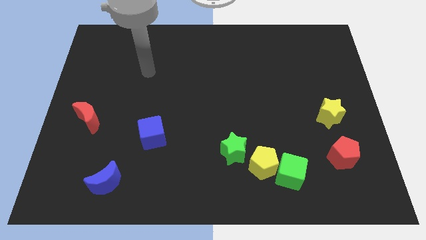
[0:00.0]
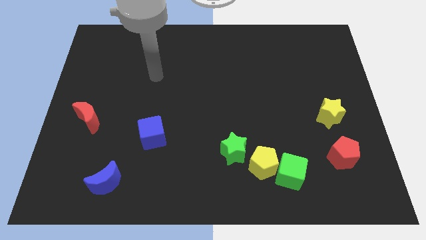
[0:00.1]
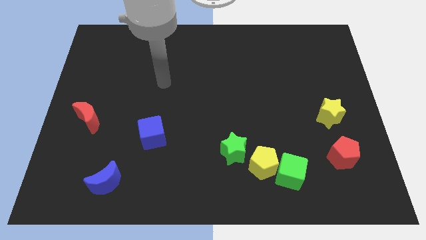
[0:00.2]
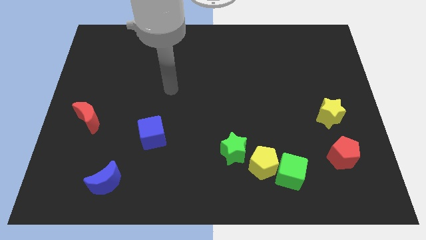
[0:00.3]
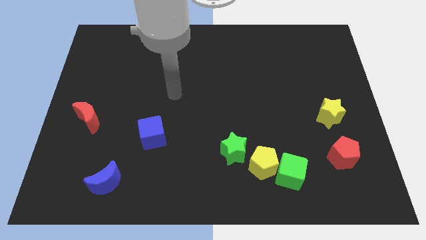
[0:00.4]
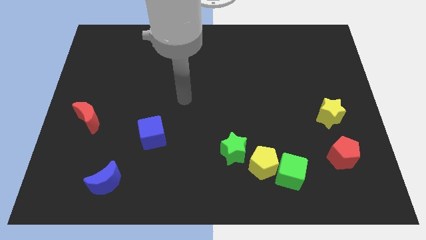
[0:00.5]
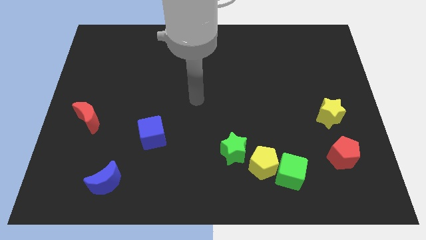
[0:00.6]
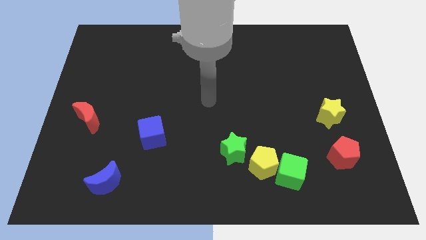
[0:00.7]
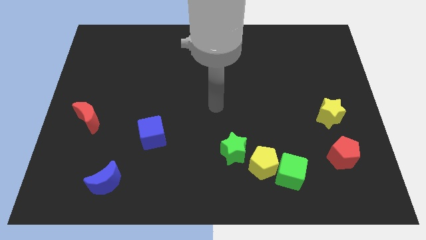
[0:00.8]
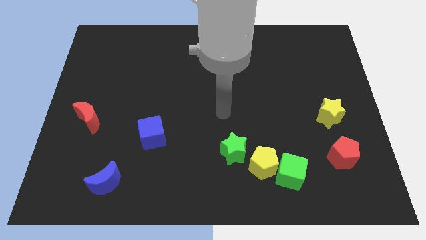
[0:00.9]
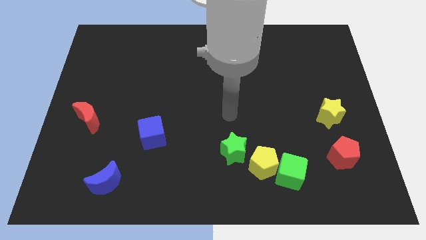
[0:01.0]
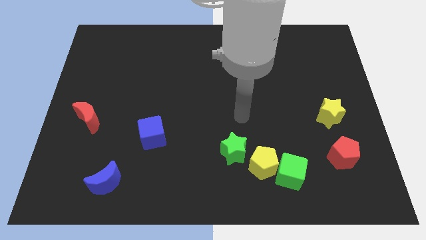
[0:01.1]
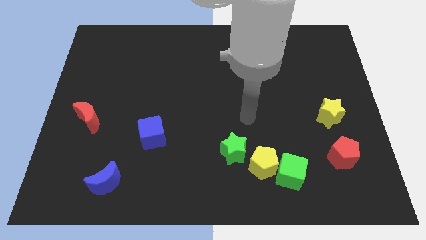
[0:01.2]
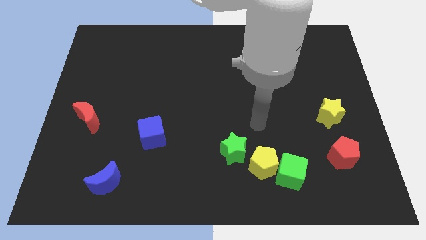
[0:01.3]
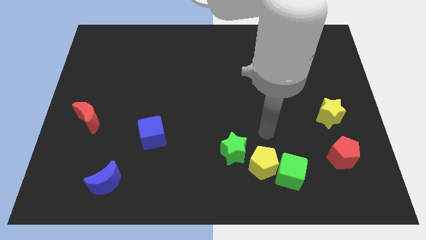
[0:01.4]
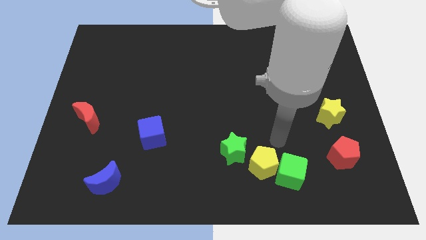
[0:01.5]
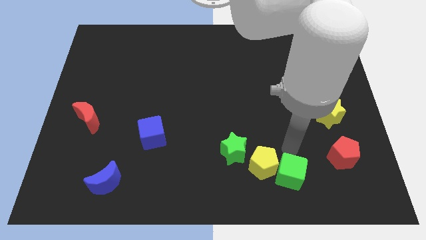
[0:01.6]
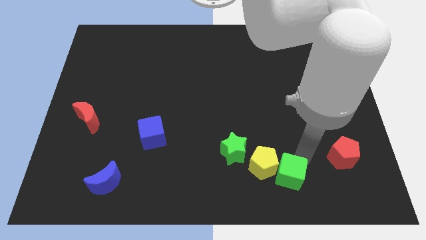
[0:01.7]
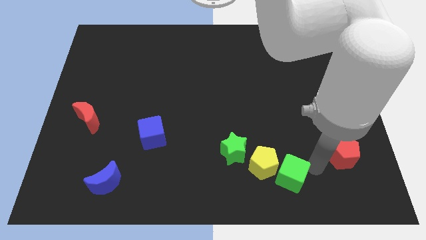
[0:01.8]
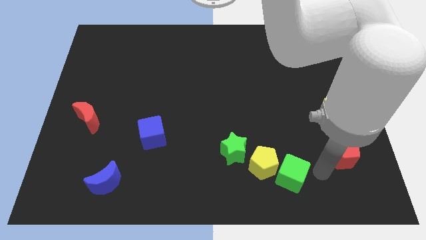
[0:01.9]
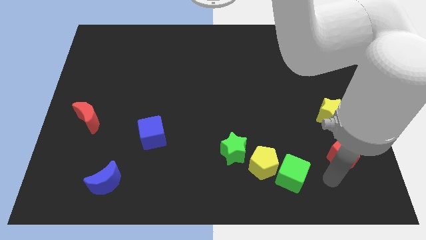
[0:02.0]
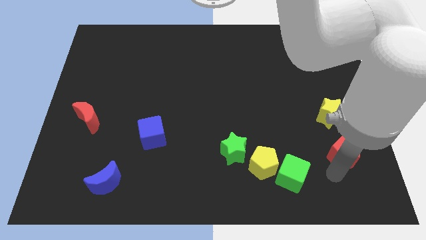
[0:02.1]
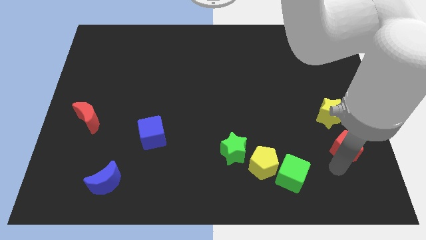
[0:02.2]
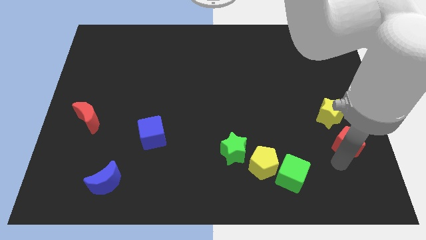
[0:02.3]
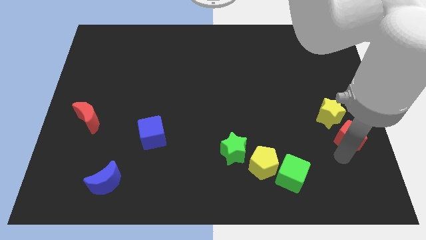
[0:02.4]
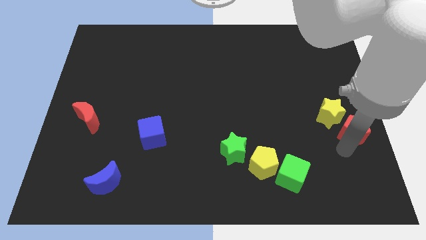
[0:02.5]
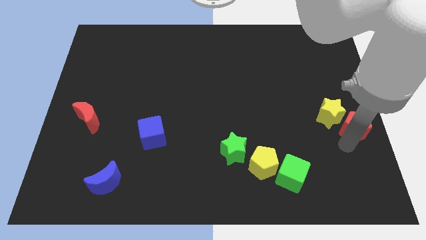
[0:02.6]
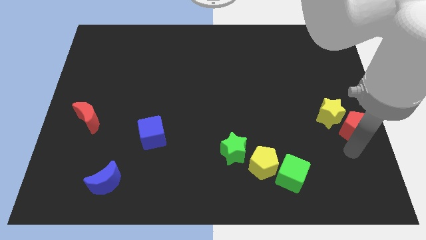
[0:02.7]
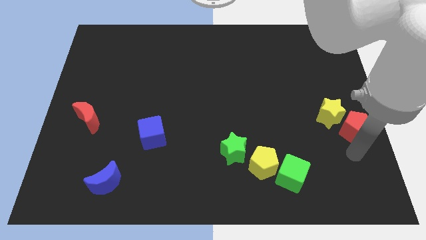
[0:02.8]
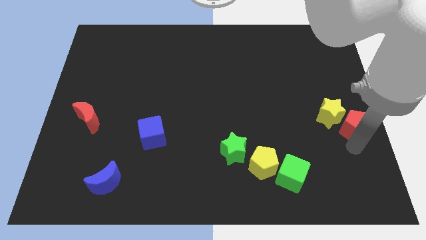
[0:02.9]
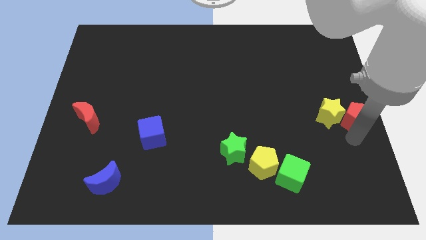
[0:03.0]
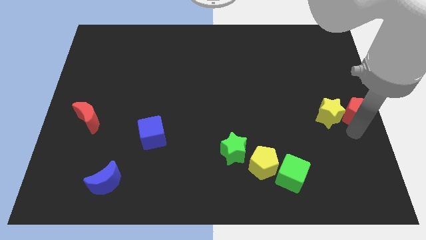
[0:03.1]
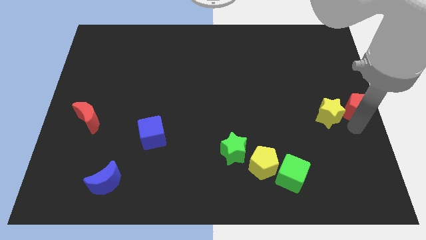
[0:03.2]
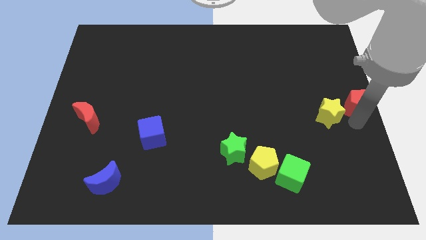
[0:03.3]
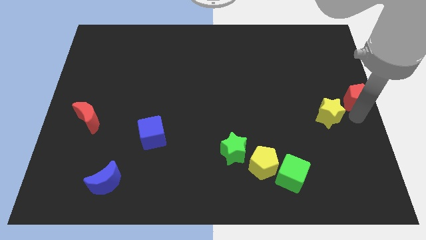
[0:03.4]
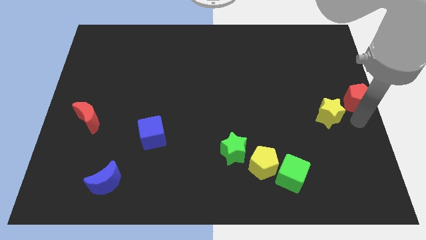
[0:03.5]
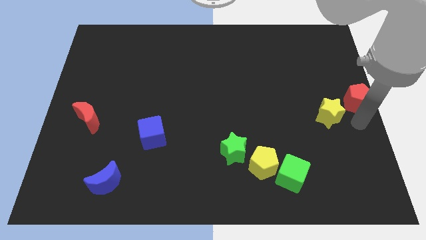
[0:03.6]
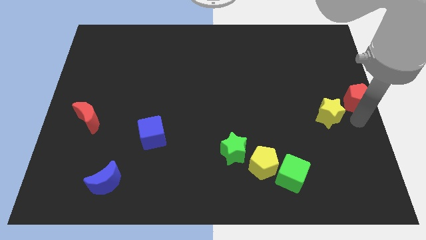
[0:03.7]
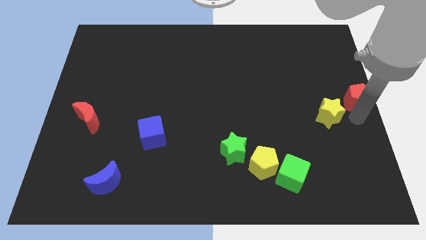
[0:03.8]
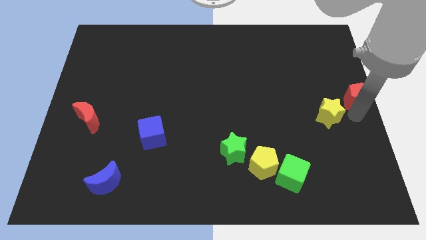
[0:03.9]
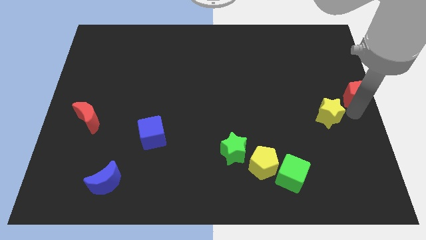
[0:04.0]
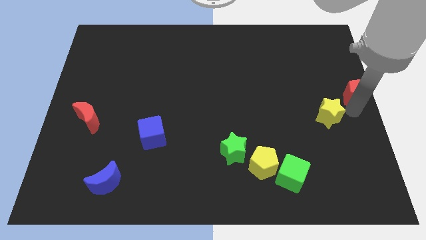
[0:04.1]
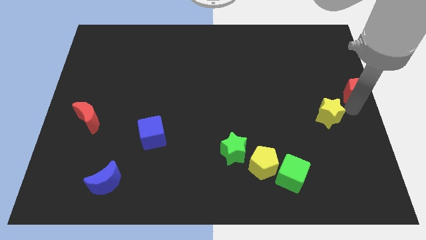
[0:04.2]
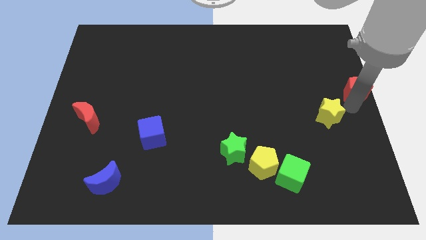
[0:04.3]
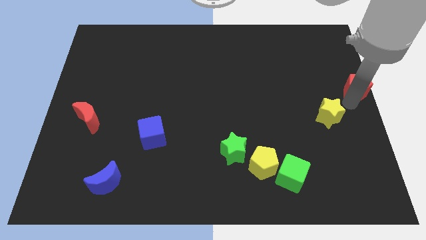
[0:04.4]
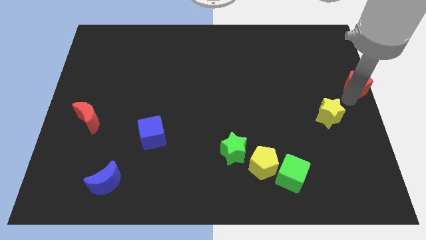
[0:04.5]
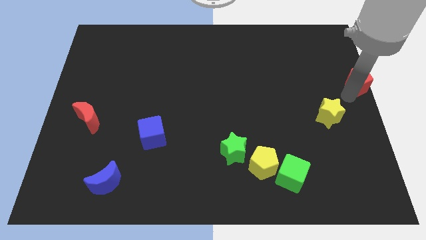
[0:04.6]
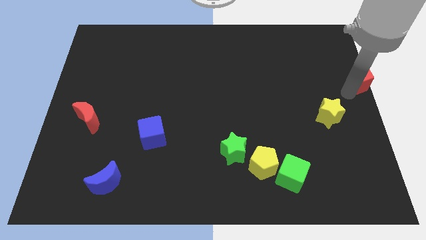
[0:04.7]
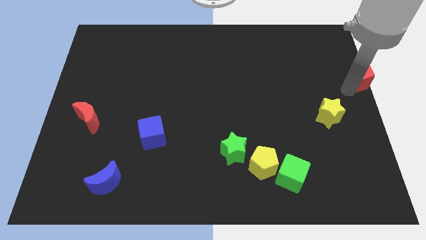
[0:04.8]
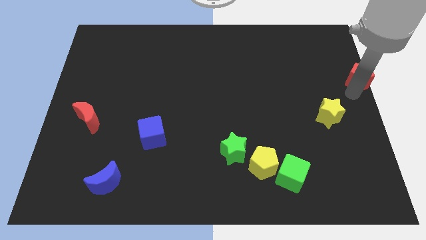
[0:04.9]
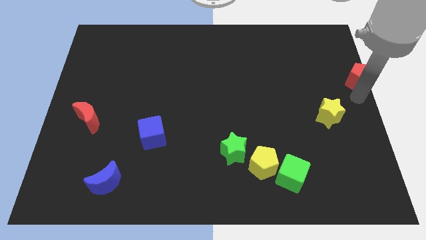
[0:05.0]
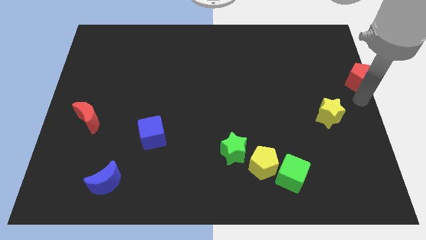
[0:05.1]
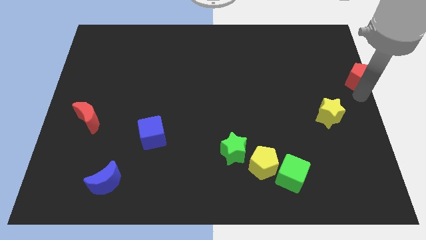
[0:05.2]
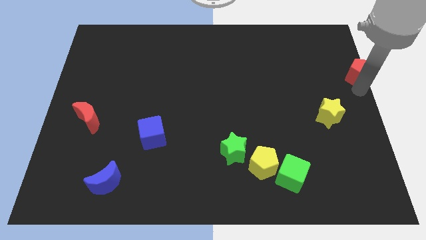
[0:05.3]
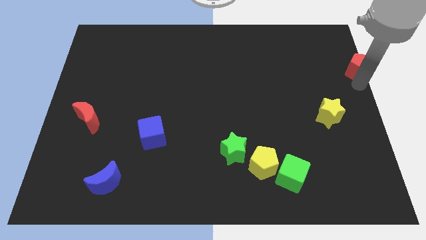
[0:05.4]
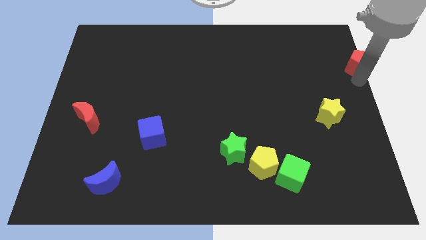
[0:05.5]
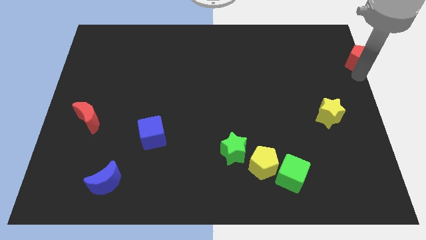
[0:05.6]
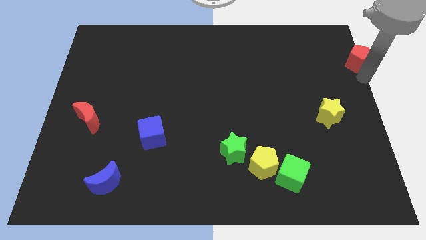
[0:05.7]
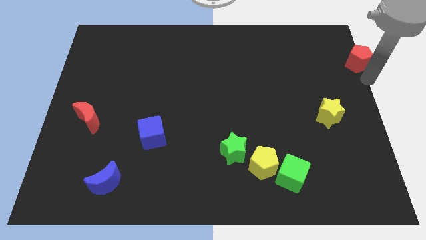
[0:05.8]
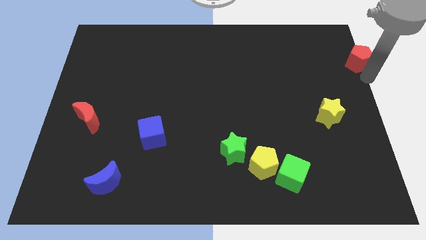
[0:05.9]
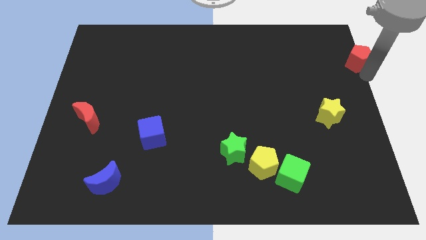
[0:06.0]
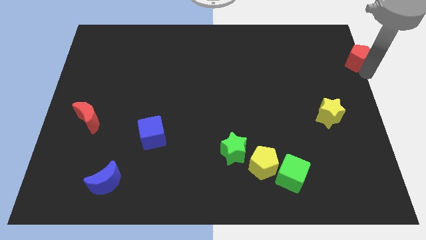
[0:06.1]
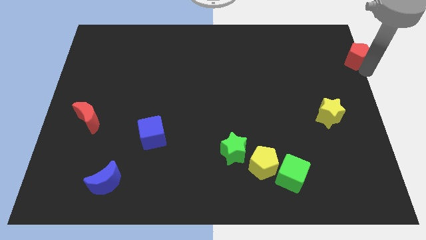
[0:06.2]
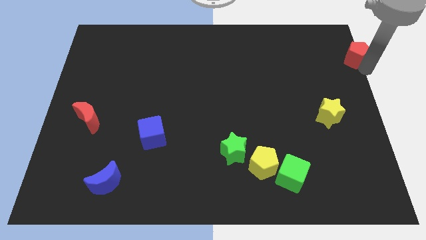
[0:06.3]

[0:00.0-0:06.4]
push the red pentagon to the top right of the board

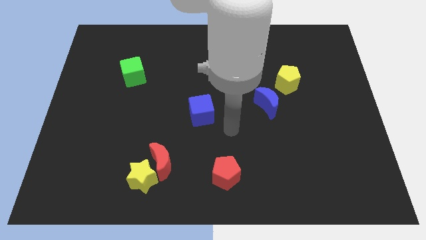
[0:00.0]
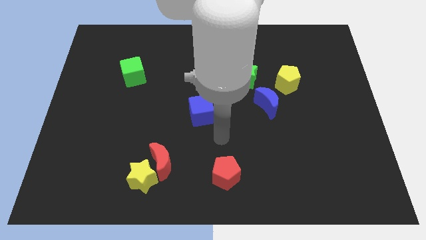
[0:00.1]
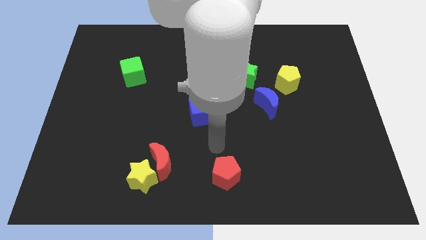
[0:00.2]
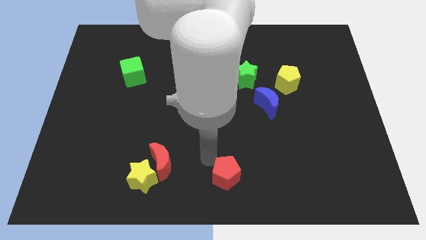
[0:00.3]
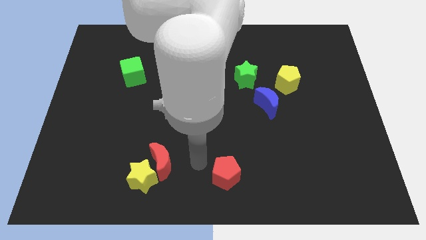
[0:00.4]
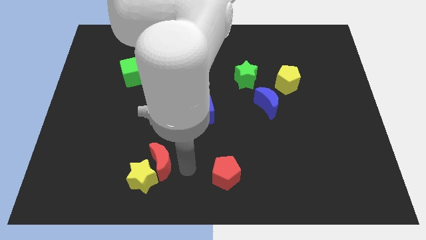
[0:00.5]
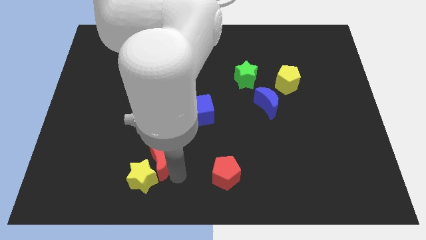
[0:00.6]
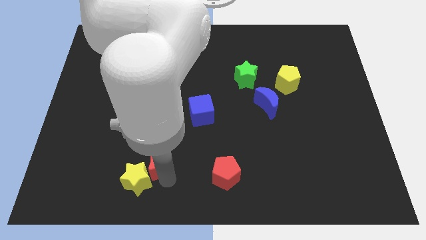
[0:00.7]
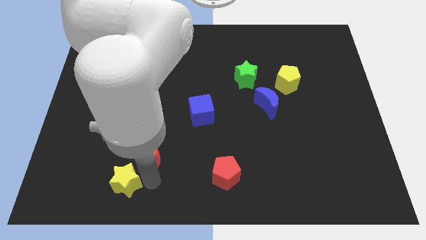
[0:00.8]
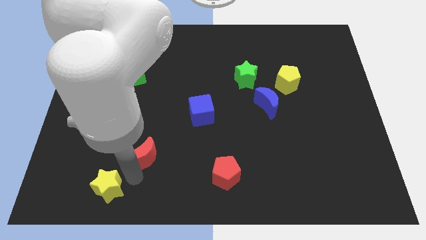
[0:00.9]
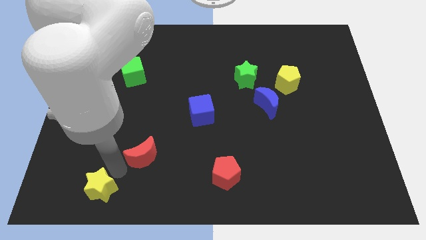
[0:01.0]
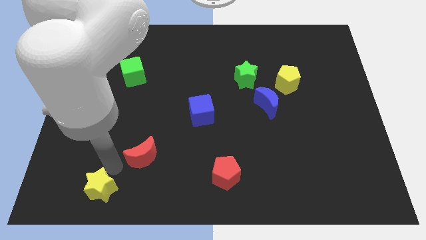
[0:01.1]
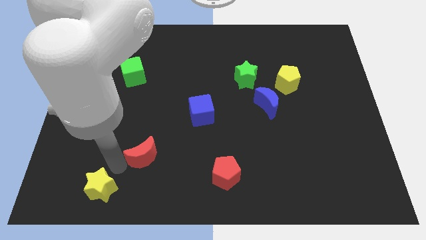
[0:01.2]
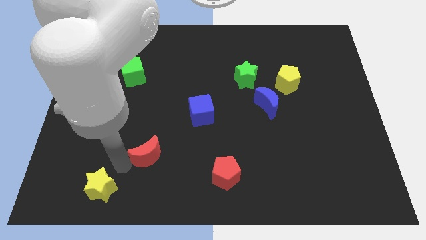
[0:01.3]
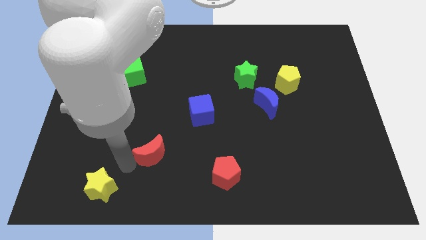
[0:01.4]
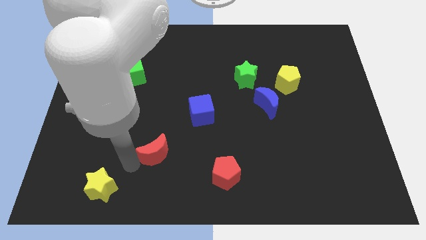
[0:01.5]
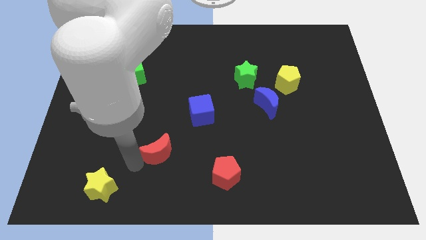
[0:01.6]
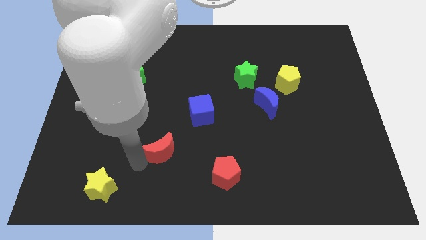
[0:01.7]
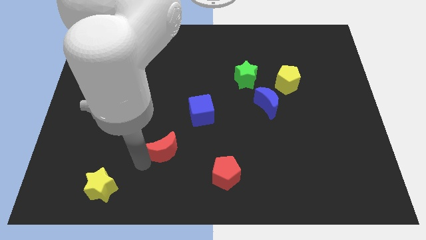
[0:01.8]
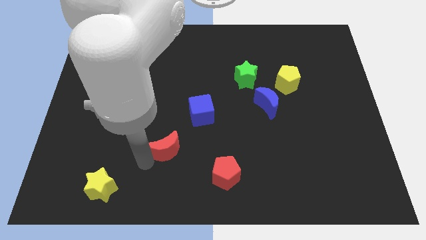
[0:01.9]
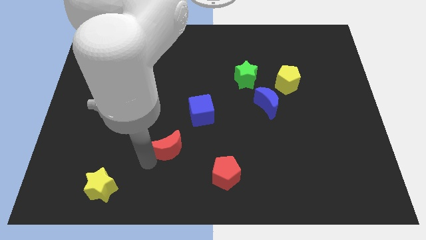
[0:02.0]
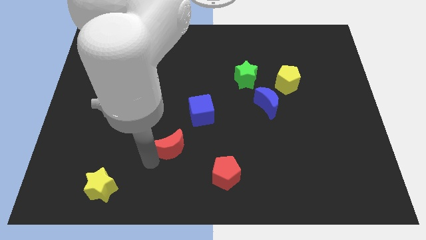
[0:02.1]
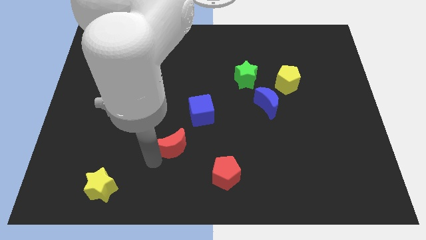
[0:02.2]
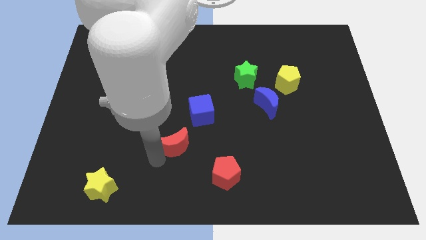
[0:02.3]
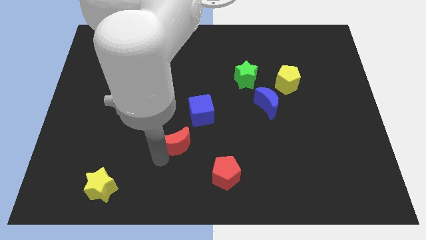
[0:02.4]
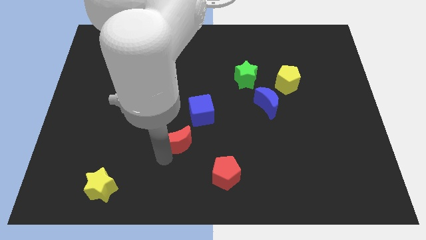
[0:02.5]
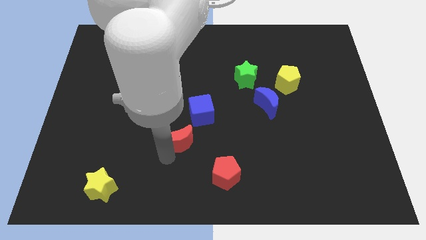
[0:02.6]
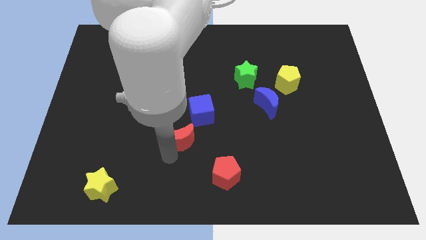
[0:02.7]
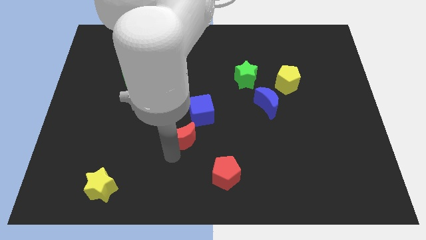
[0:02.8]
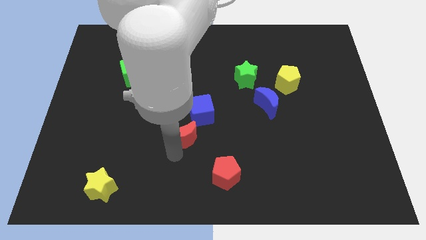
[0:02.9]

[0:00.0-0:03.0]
push the red moon to the center
